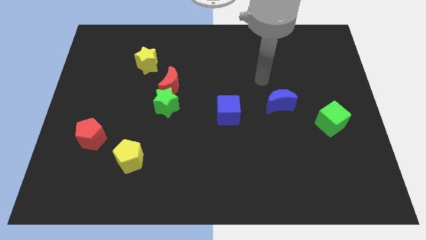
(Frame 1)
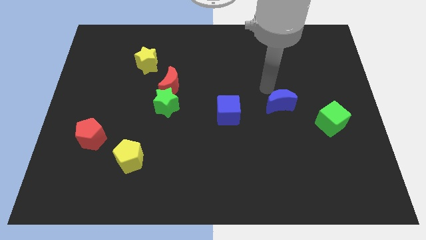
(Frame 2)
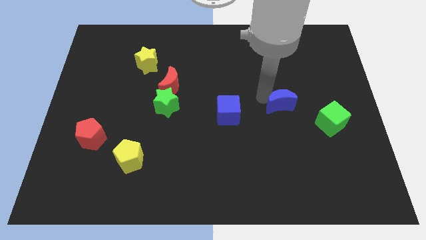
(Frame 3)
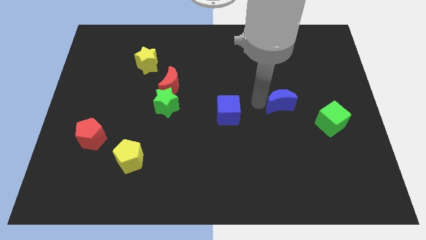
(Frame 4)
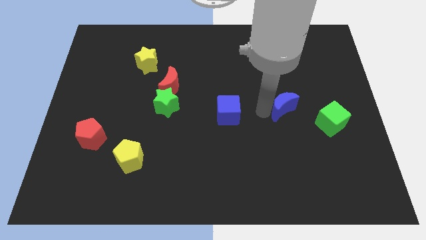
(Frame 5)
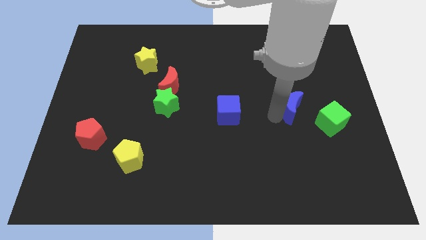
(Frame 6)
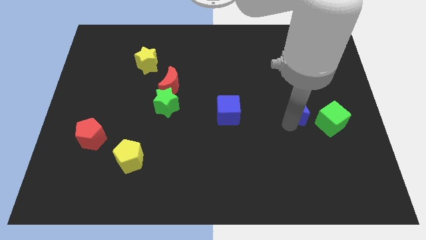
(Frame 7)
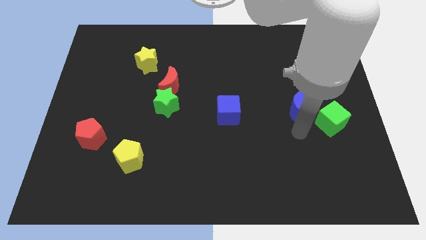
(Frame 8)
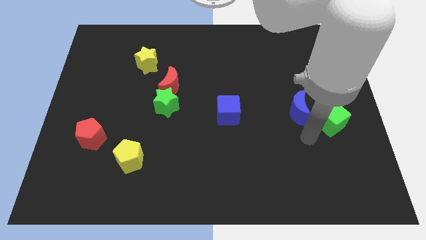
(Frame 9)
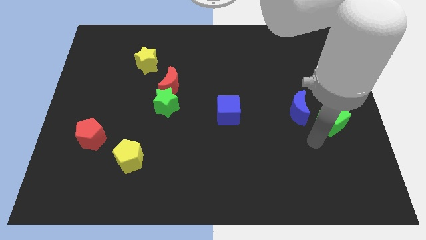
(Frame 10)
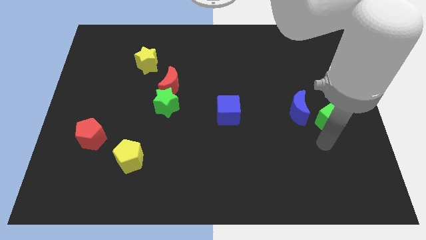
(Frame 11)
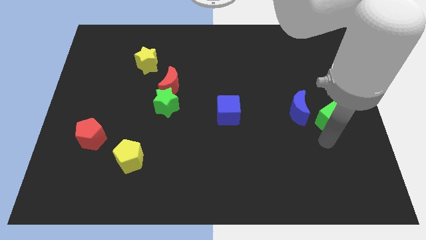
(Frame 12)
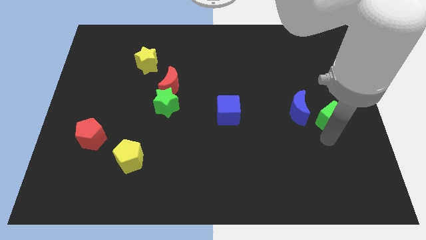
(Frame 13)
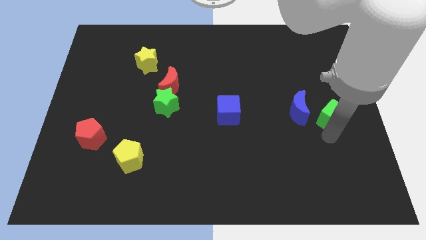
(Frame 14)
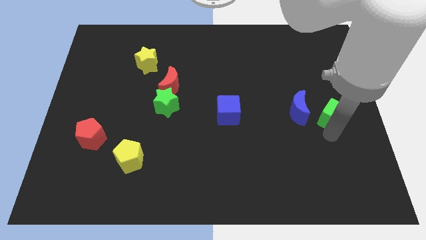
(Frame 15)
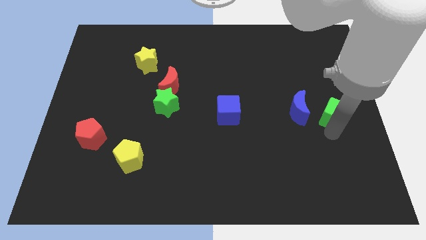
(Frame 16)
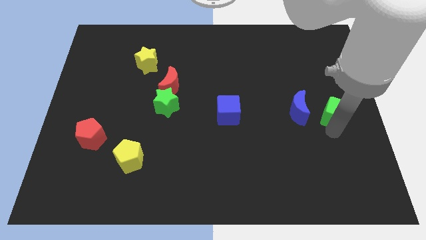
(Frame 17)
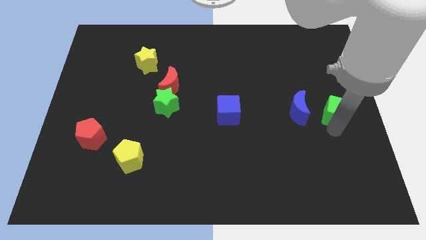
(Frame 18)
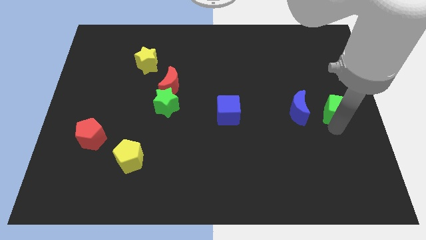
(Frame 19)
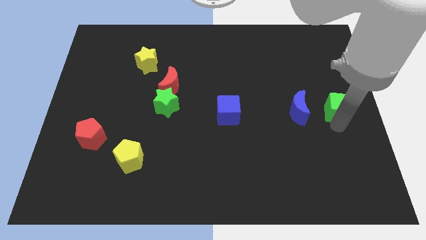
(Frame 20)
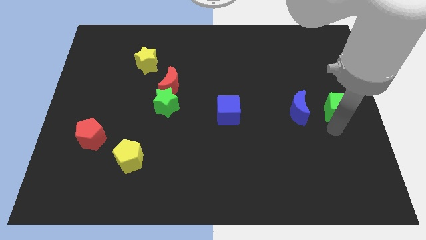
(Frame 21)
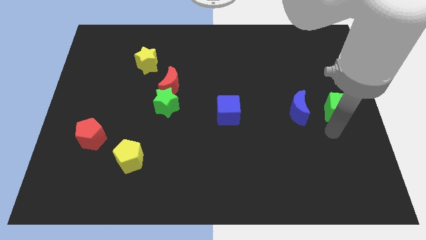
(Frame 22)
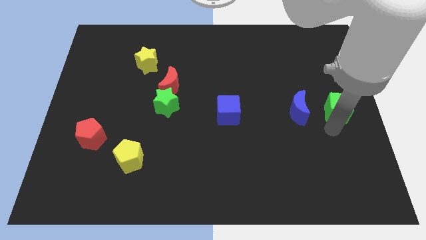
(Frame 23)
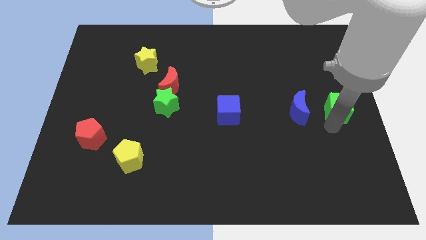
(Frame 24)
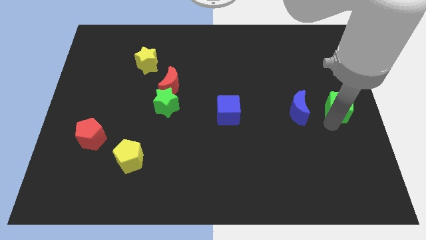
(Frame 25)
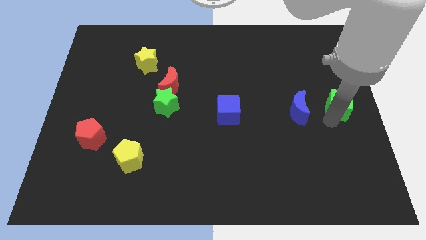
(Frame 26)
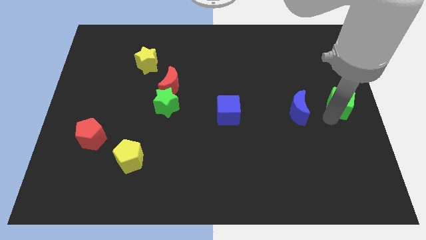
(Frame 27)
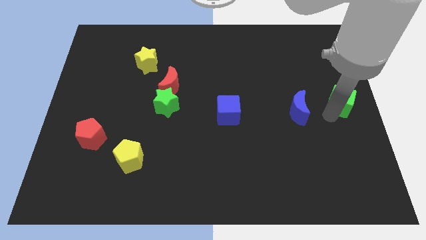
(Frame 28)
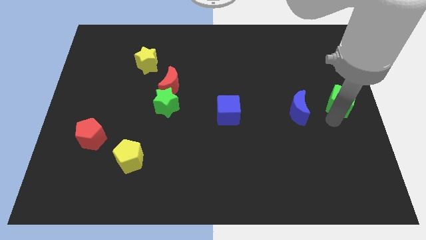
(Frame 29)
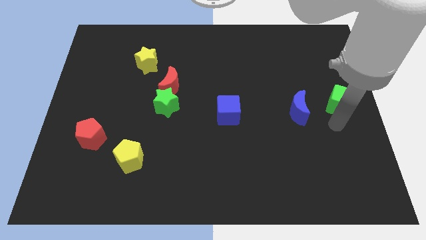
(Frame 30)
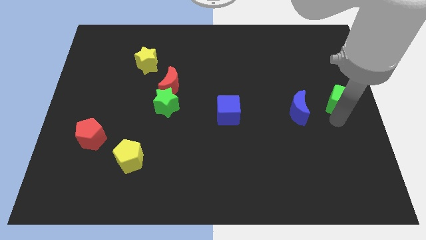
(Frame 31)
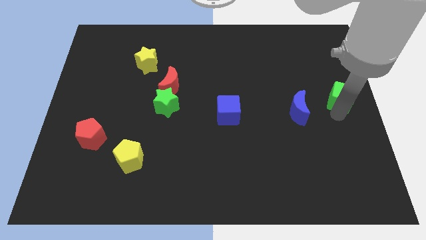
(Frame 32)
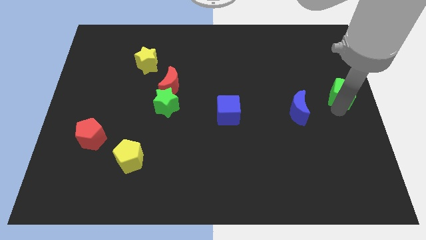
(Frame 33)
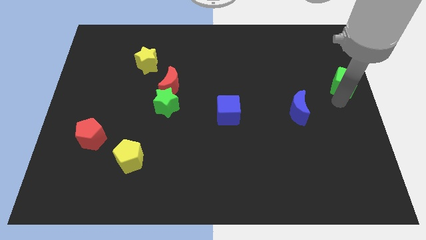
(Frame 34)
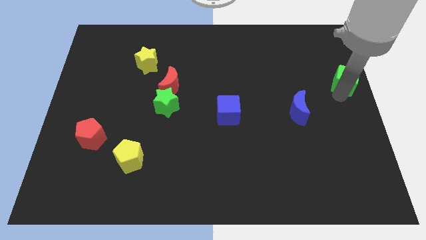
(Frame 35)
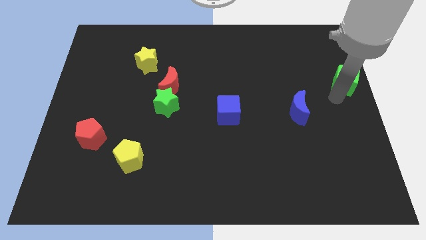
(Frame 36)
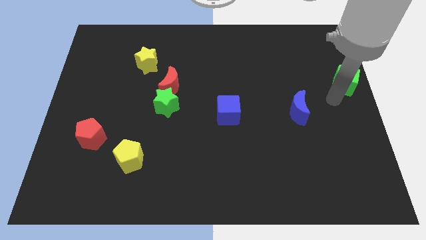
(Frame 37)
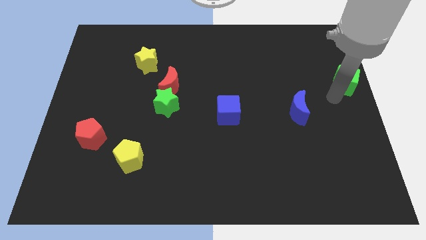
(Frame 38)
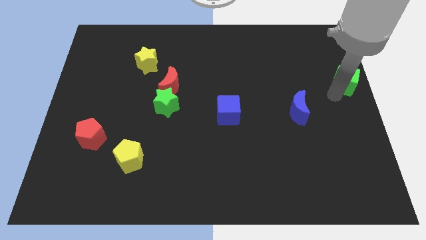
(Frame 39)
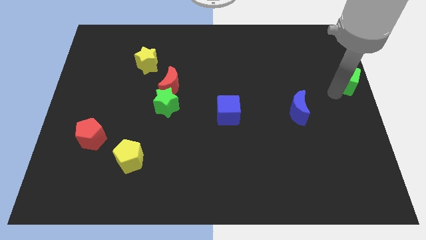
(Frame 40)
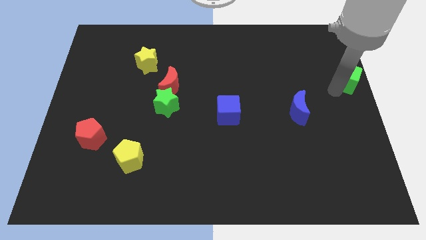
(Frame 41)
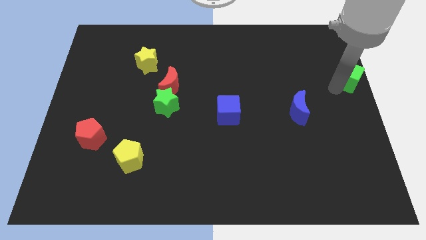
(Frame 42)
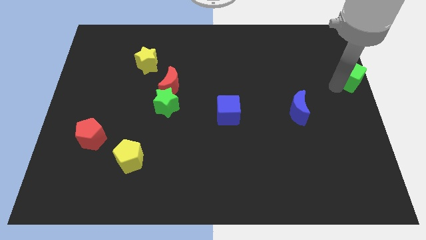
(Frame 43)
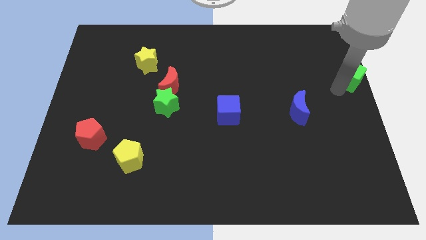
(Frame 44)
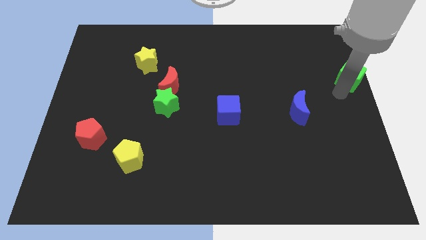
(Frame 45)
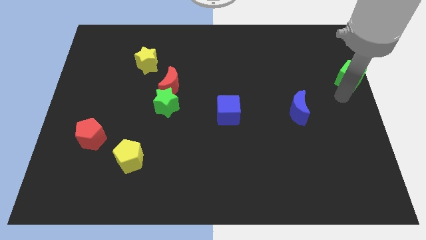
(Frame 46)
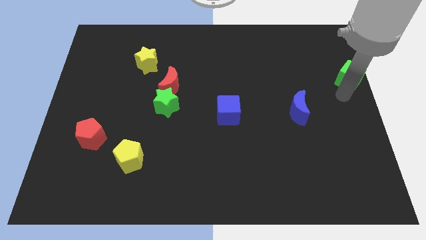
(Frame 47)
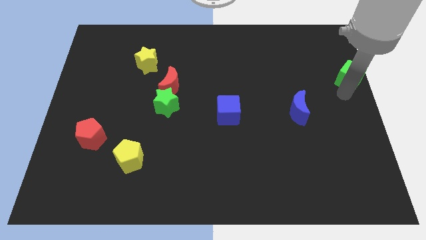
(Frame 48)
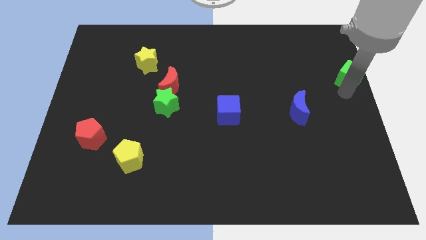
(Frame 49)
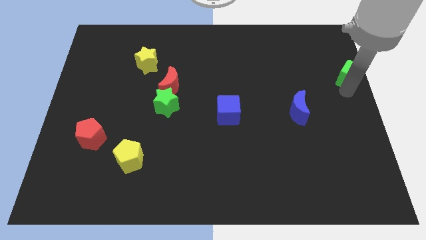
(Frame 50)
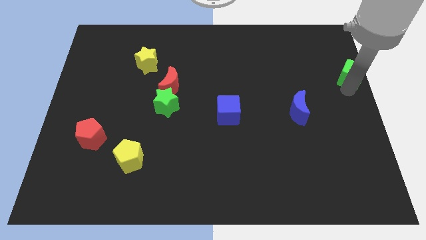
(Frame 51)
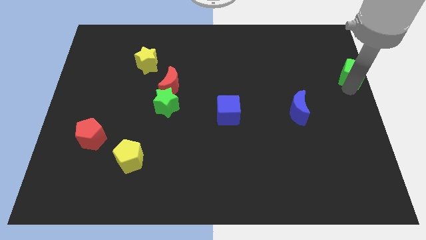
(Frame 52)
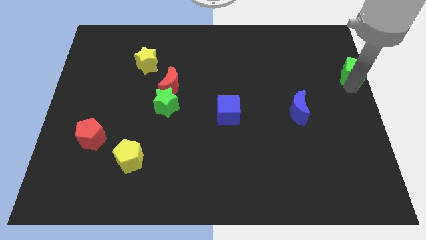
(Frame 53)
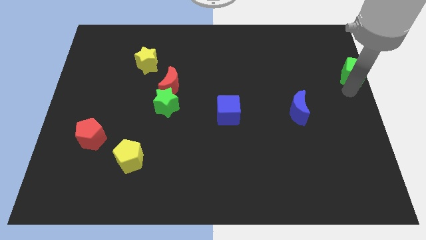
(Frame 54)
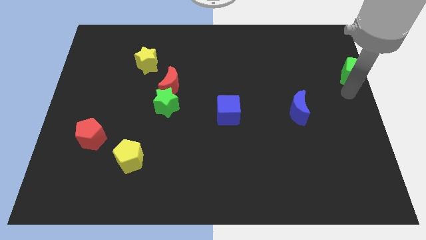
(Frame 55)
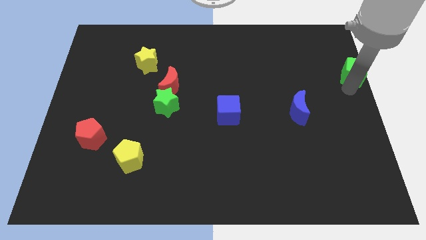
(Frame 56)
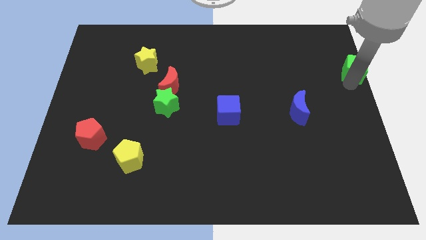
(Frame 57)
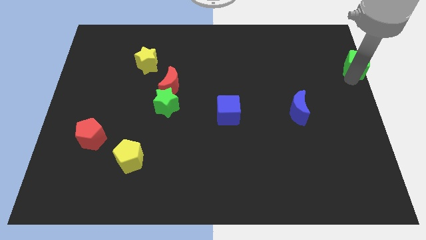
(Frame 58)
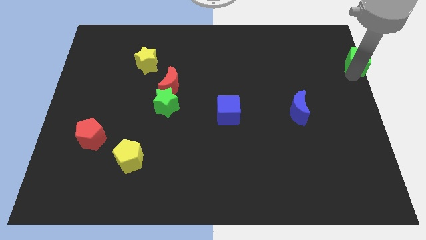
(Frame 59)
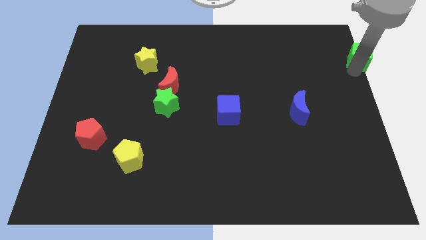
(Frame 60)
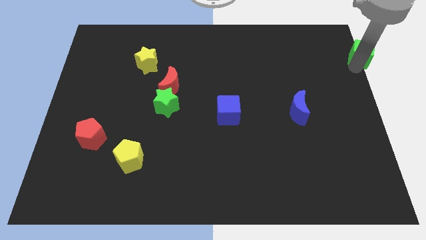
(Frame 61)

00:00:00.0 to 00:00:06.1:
push the green cube to the upper right corner
